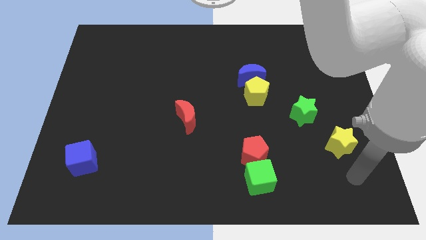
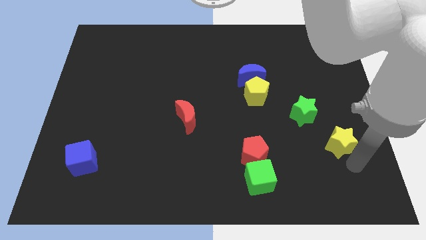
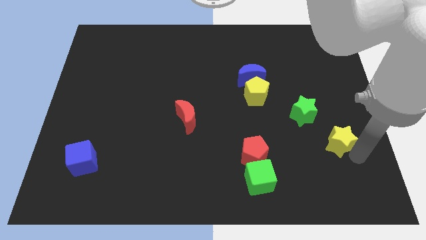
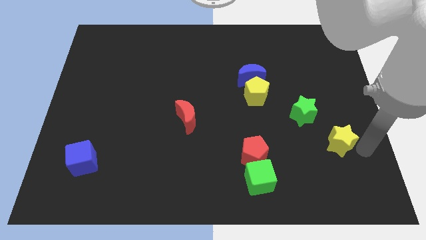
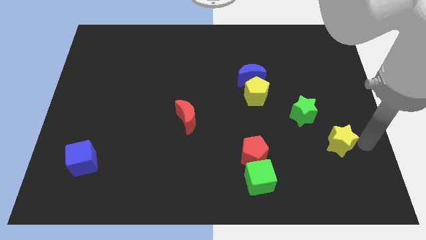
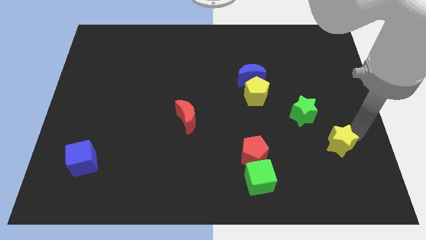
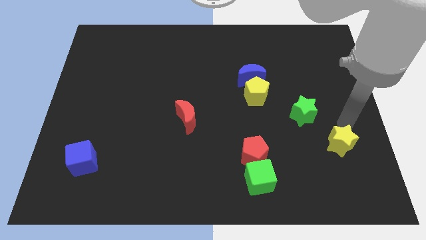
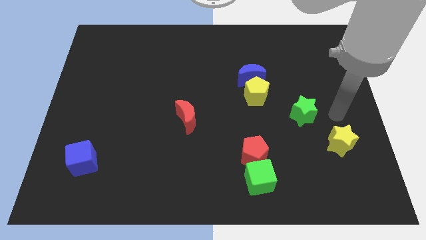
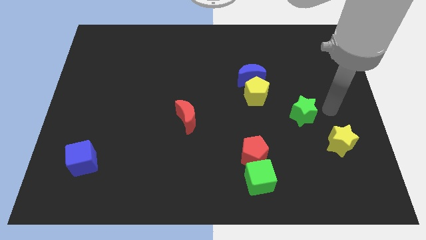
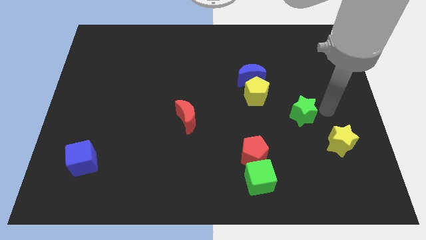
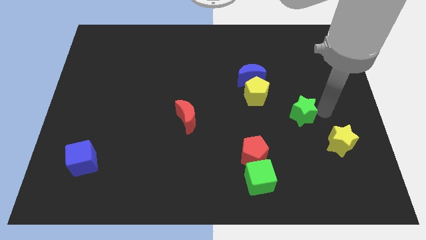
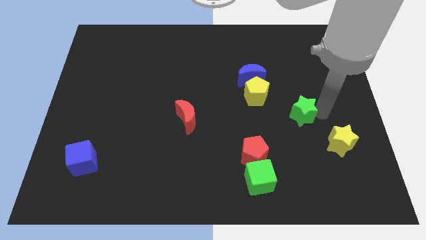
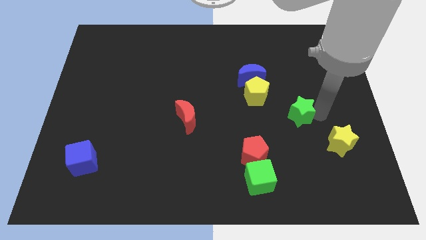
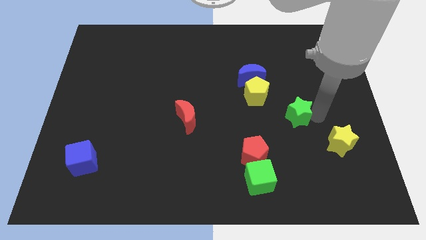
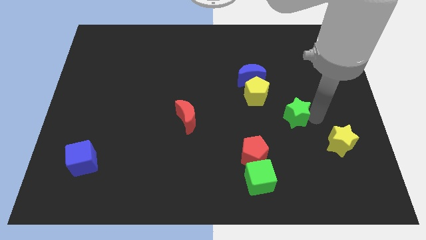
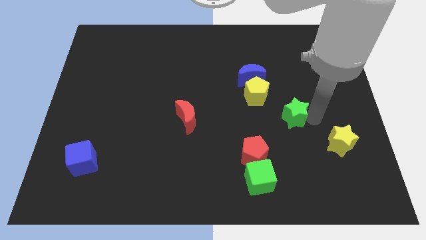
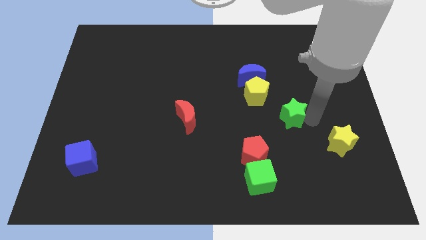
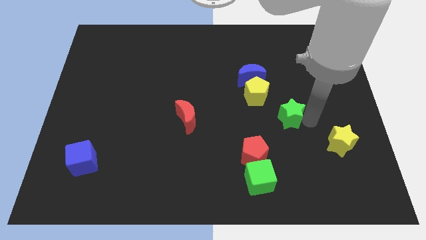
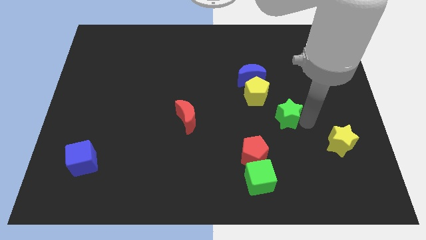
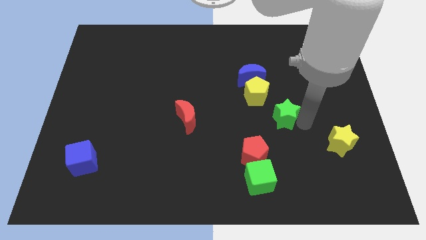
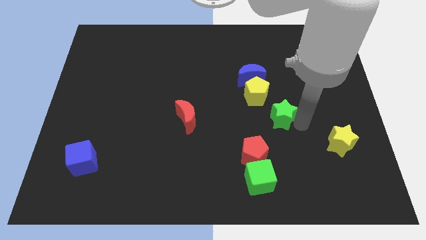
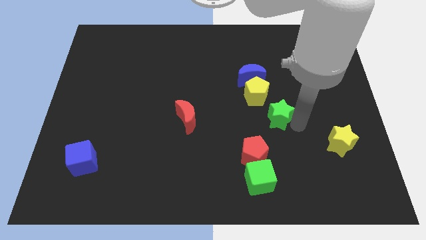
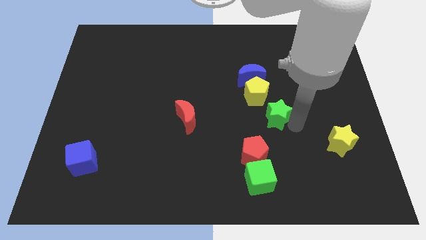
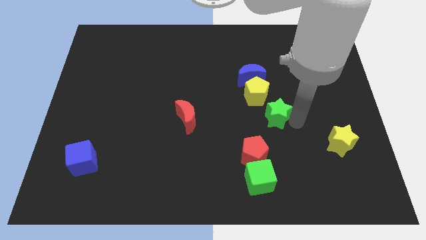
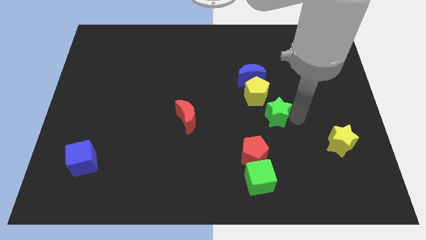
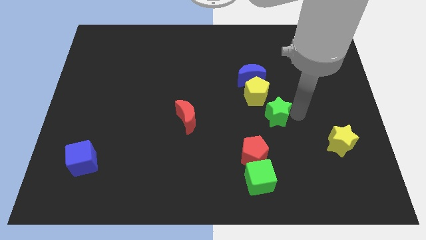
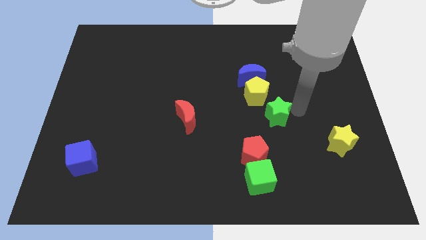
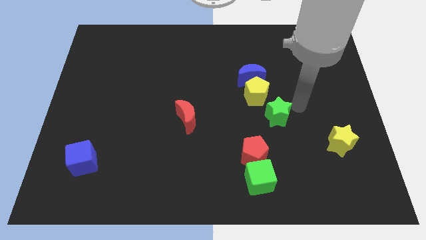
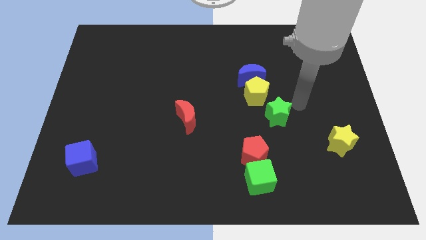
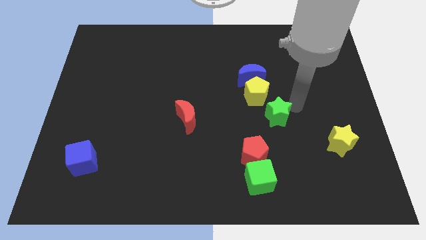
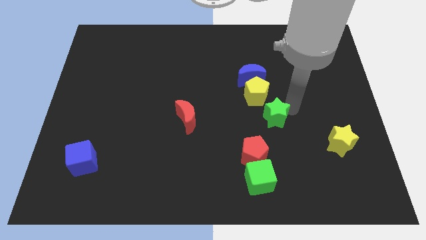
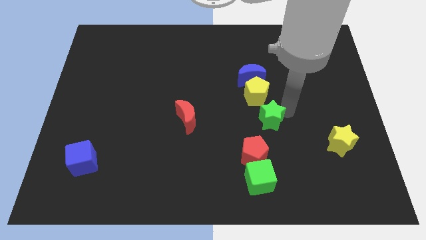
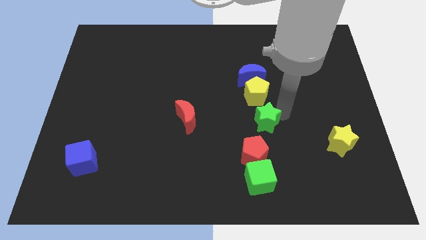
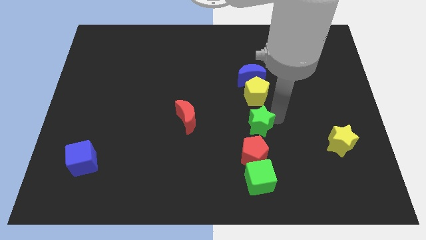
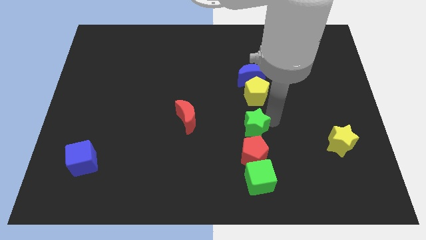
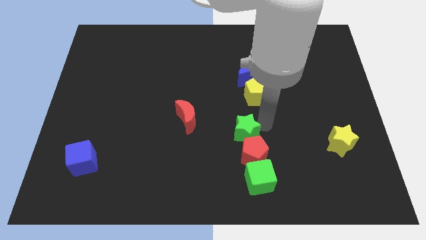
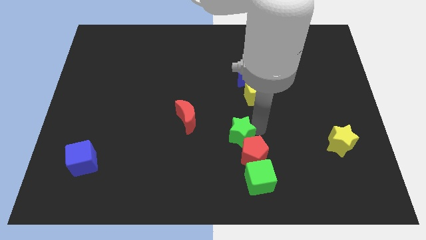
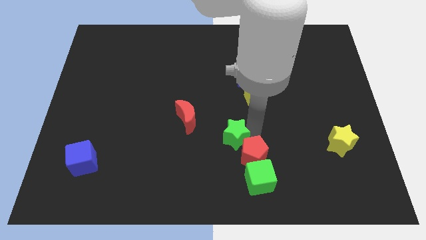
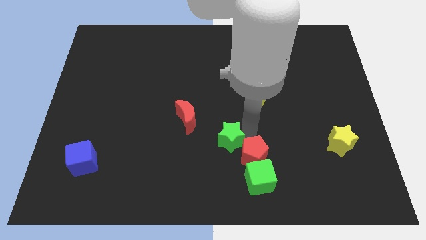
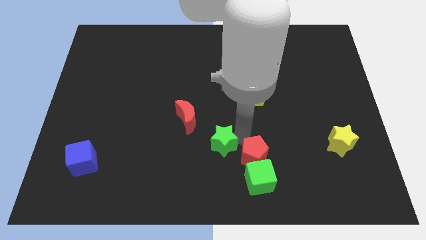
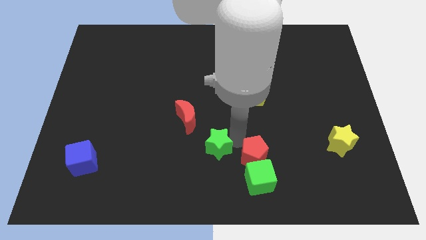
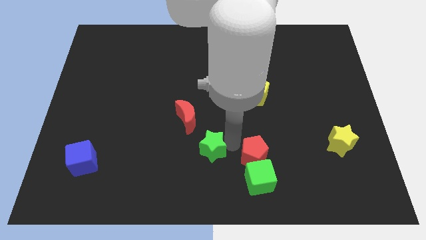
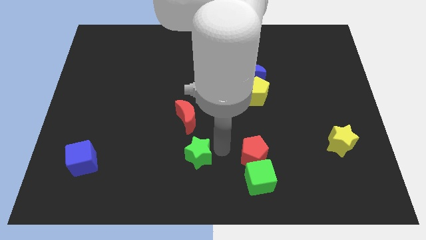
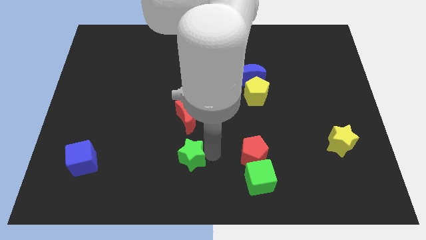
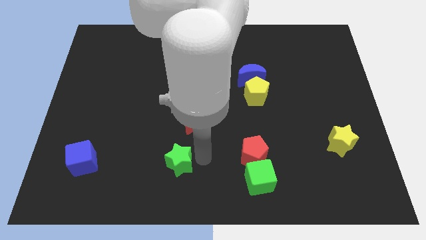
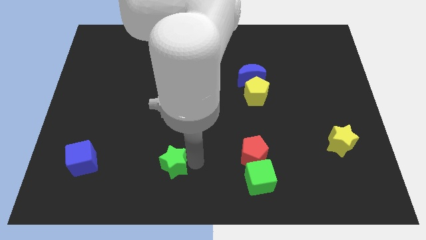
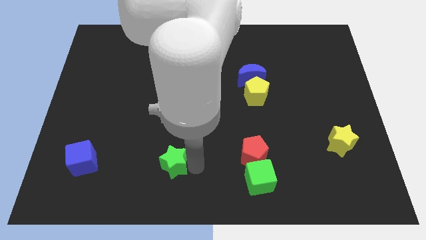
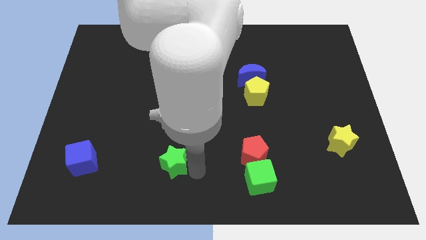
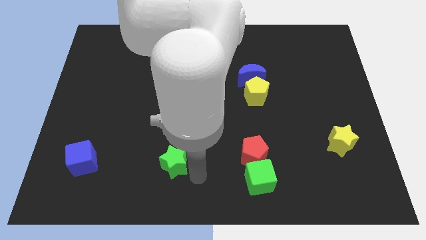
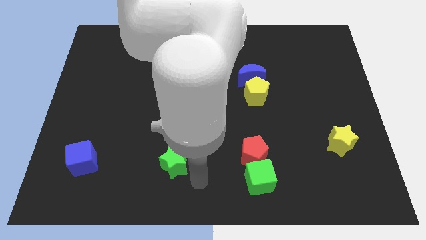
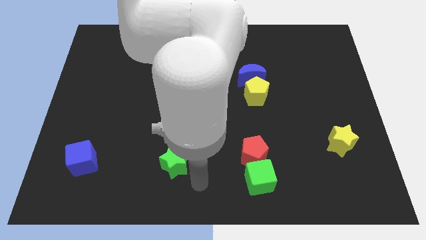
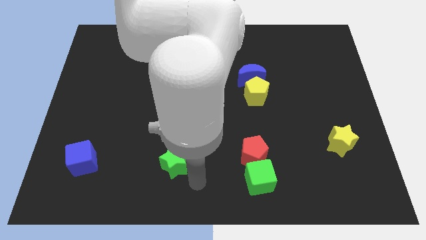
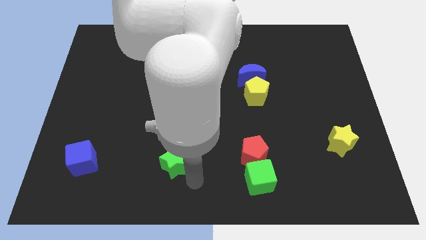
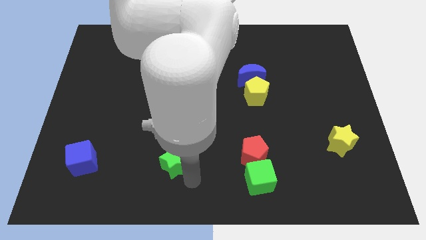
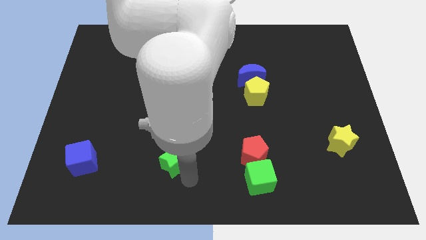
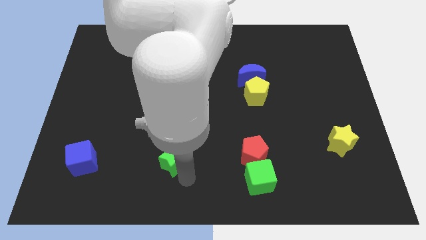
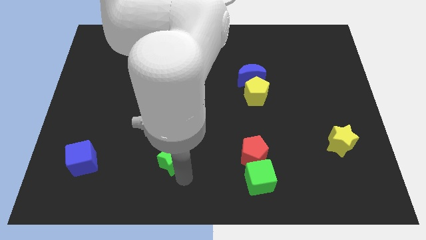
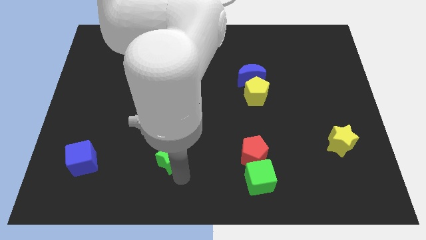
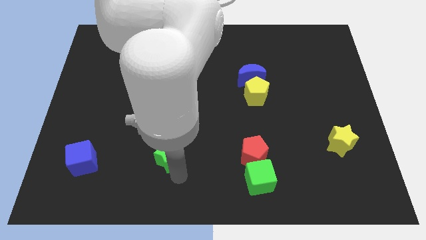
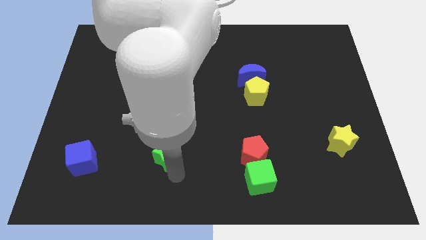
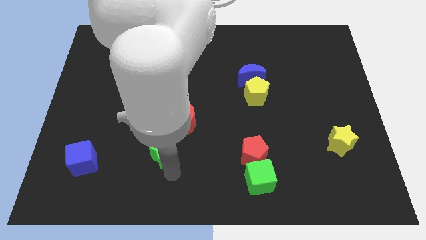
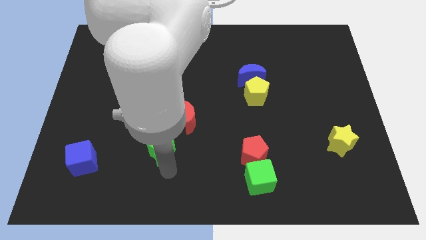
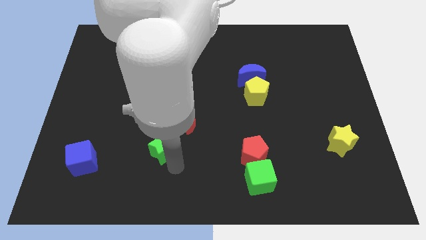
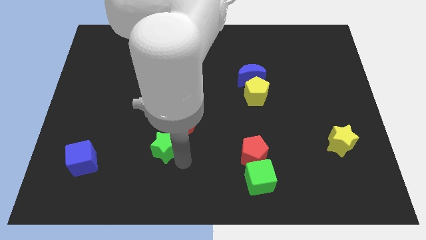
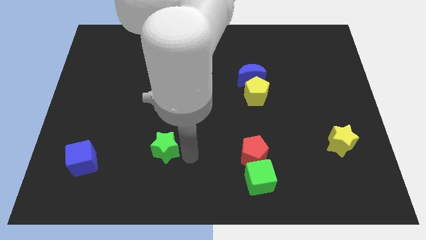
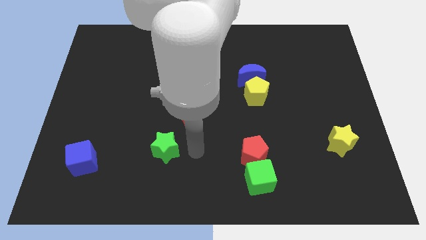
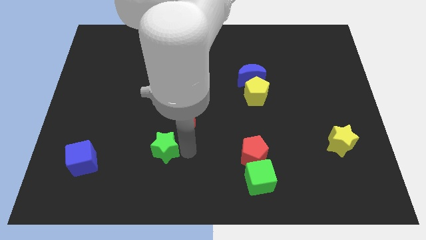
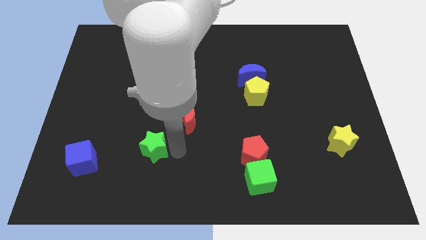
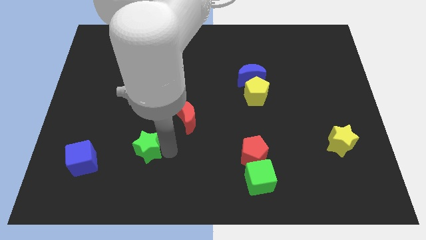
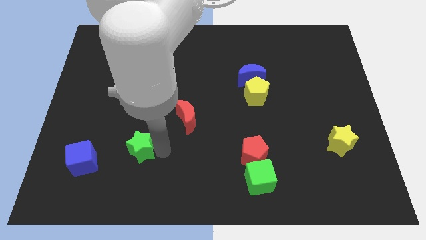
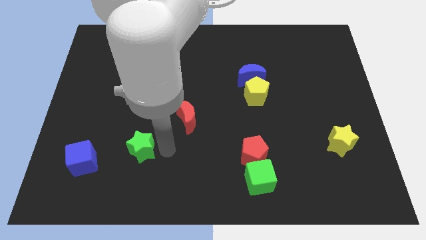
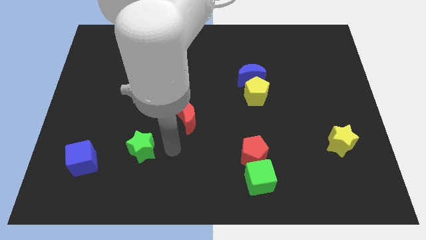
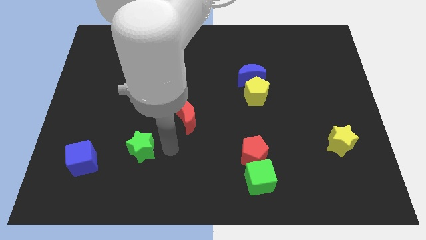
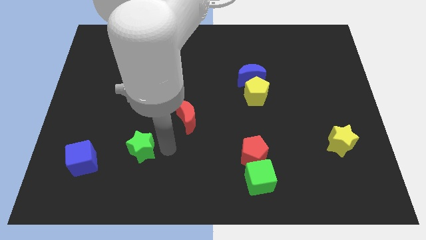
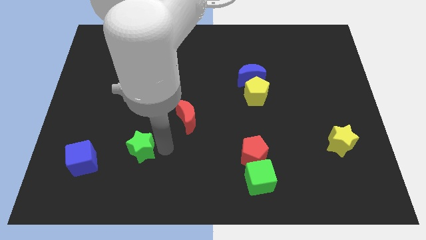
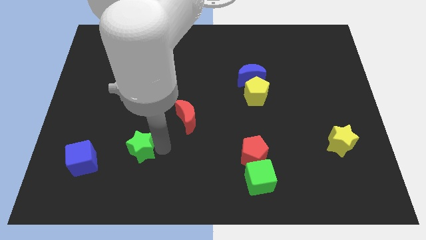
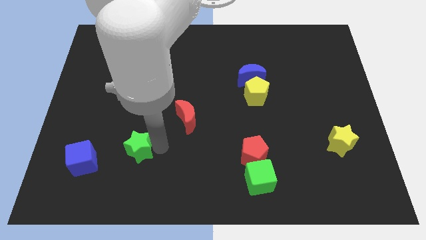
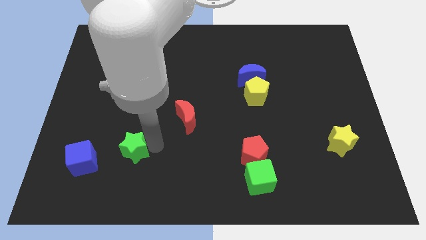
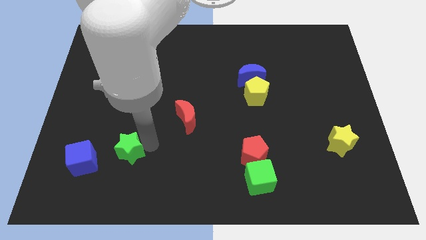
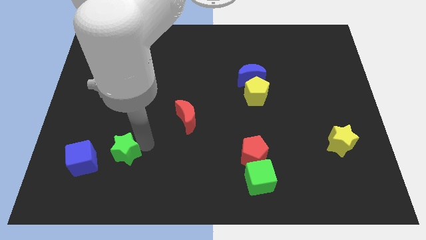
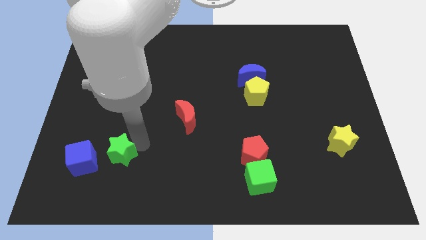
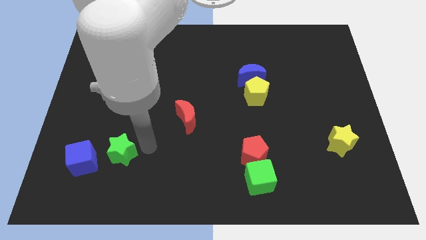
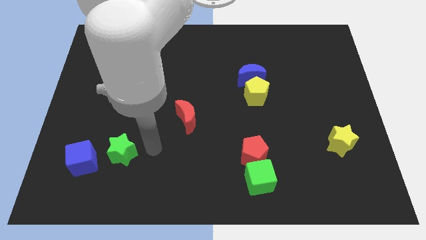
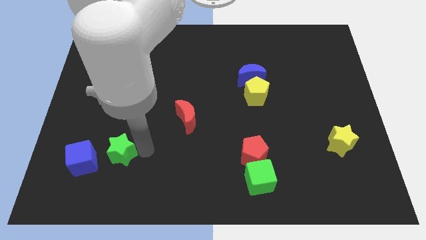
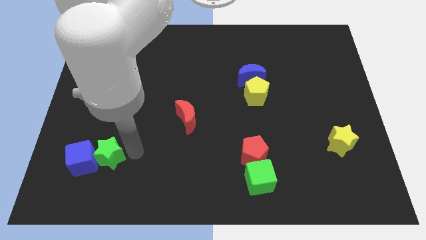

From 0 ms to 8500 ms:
push the green star next to the blue cube
